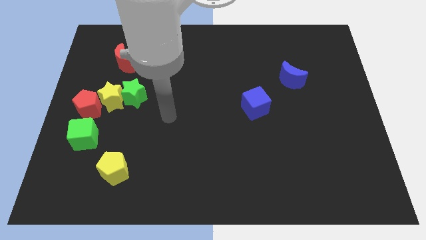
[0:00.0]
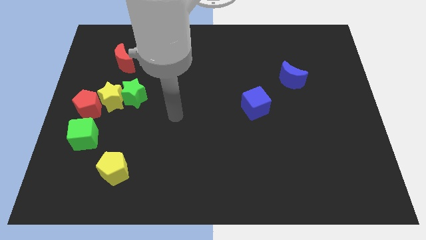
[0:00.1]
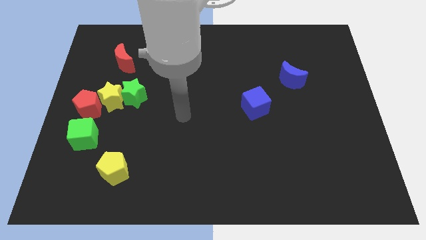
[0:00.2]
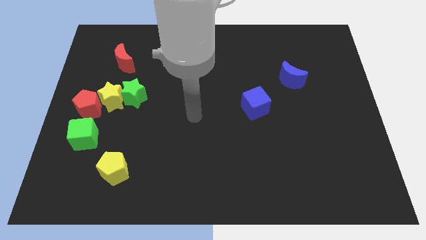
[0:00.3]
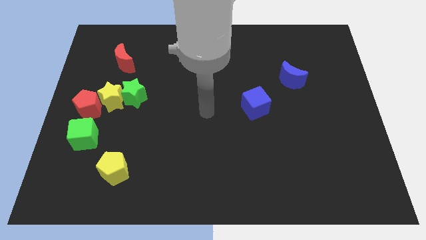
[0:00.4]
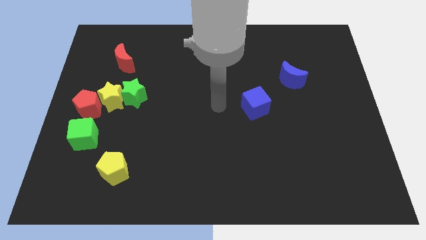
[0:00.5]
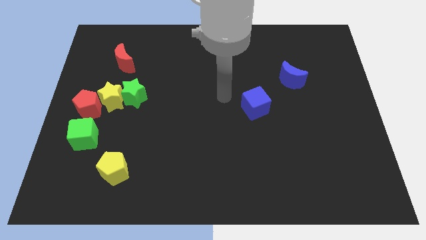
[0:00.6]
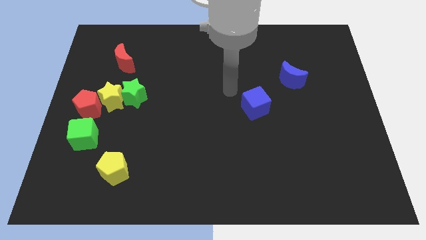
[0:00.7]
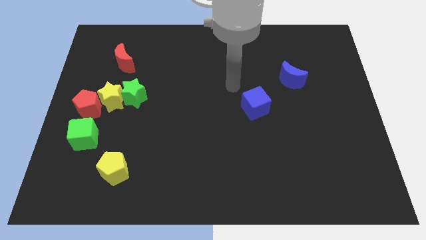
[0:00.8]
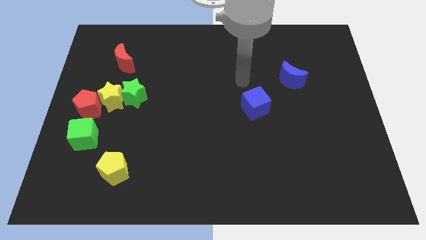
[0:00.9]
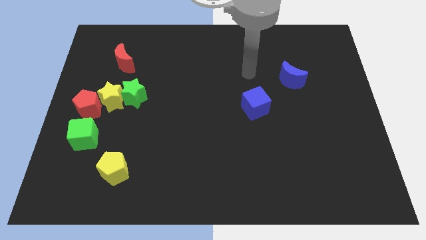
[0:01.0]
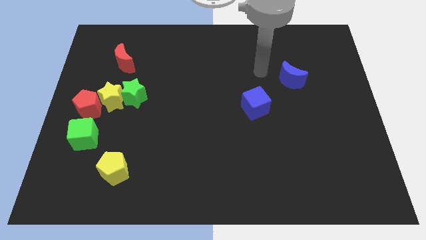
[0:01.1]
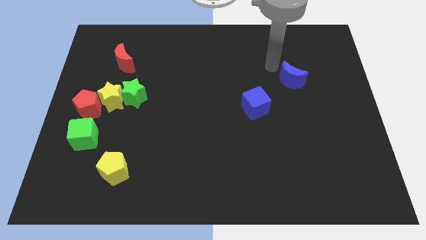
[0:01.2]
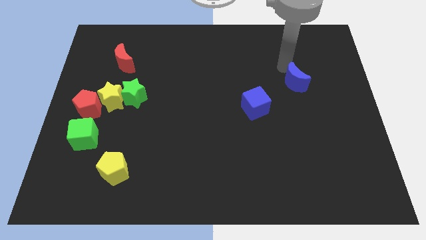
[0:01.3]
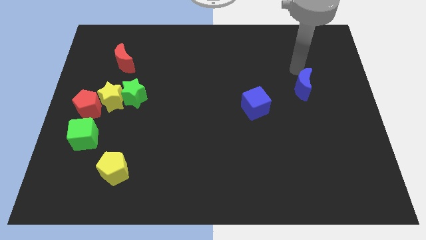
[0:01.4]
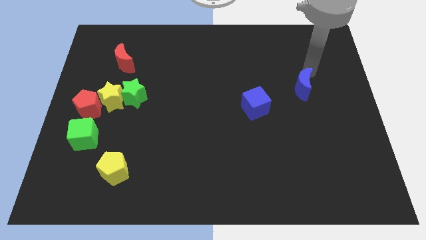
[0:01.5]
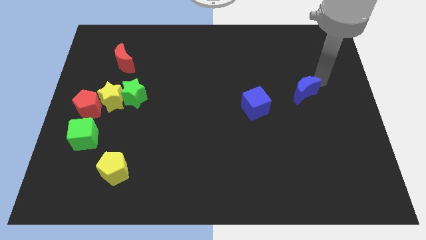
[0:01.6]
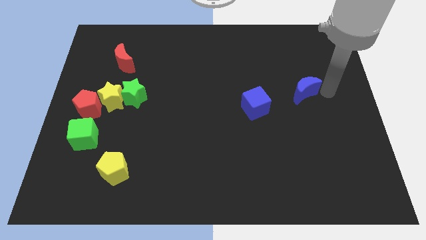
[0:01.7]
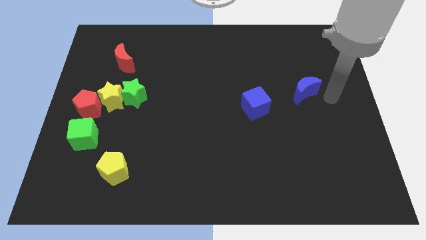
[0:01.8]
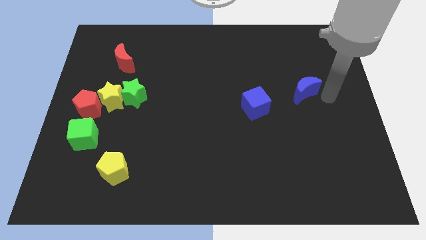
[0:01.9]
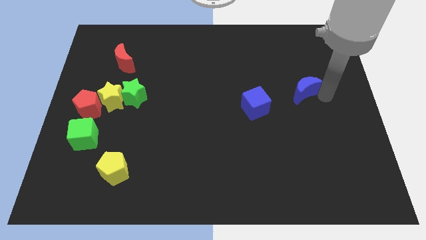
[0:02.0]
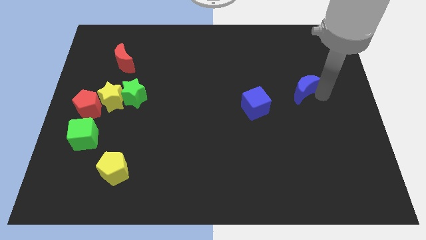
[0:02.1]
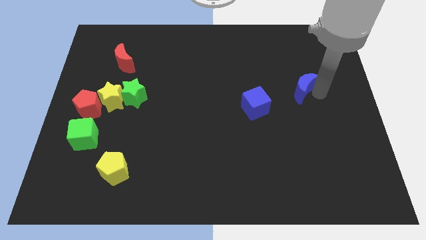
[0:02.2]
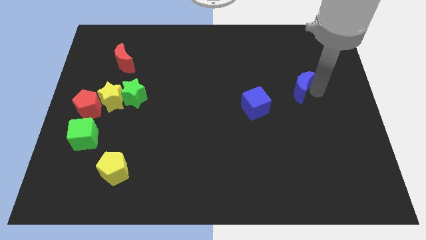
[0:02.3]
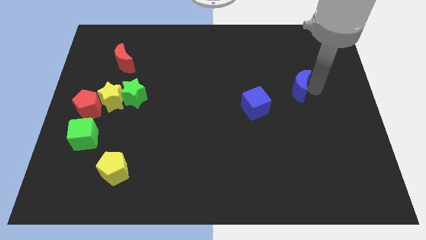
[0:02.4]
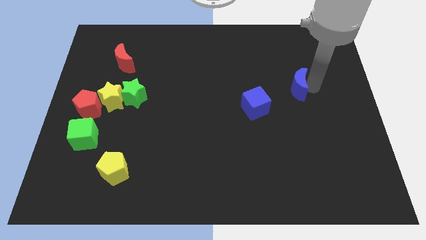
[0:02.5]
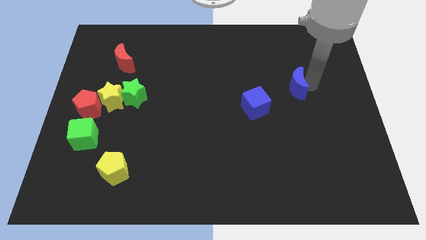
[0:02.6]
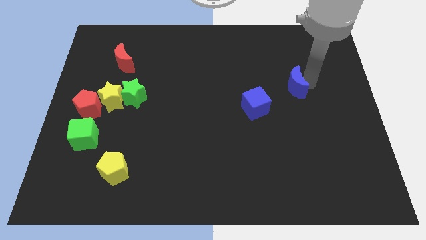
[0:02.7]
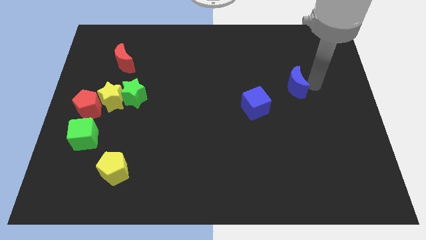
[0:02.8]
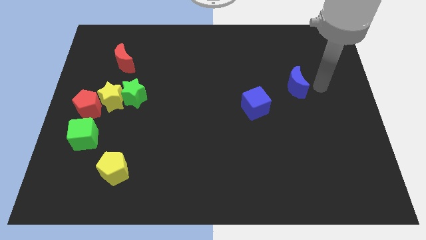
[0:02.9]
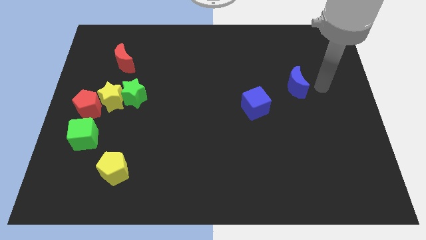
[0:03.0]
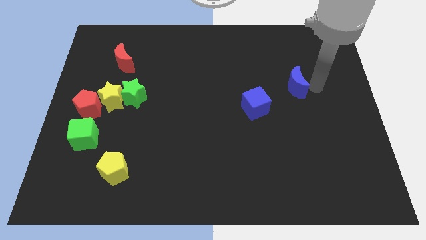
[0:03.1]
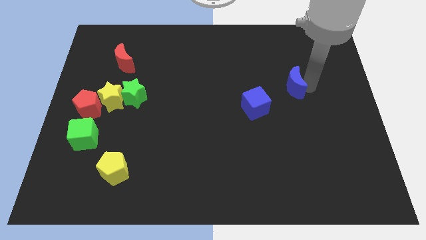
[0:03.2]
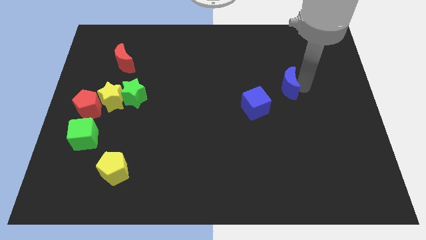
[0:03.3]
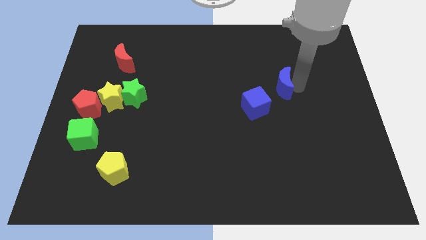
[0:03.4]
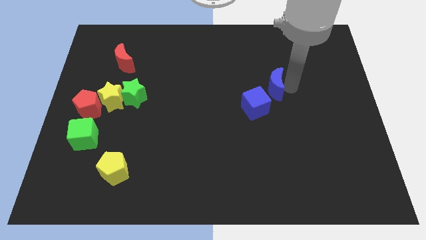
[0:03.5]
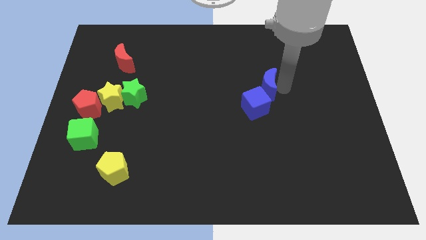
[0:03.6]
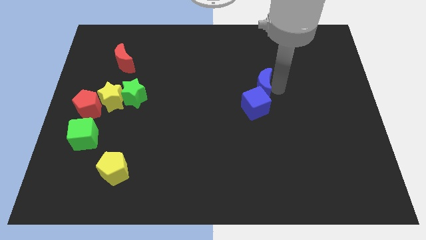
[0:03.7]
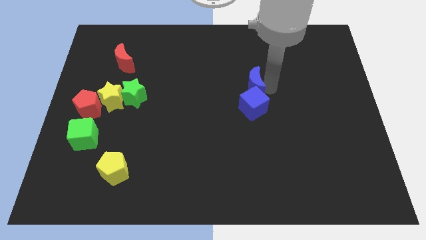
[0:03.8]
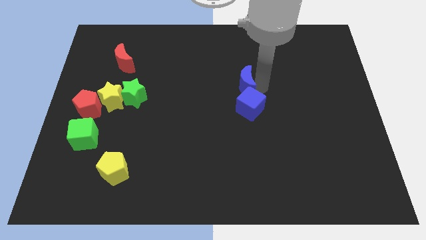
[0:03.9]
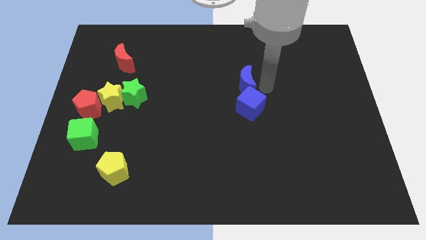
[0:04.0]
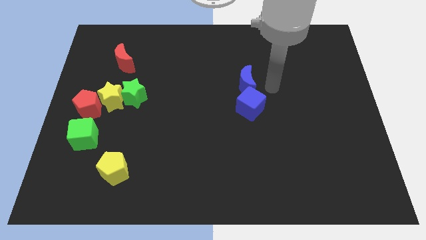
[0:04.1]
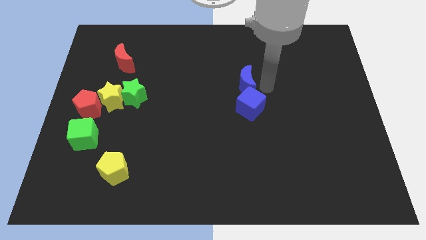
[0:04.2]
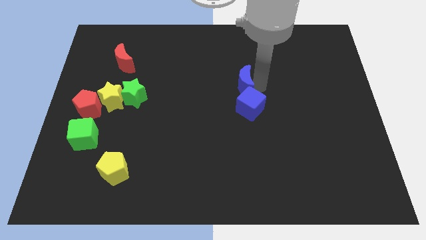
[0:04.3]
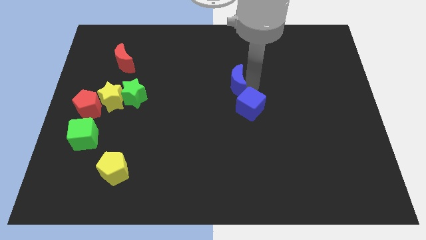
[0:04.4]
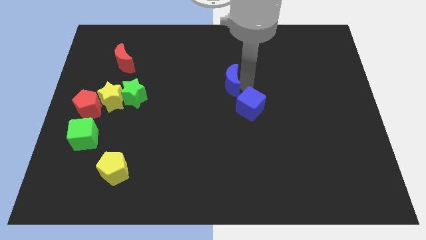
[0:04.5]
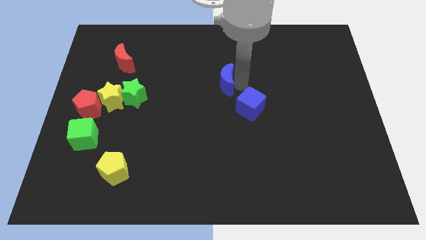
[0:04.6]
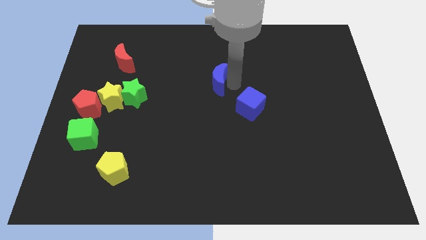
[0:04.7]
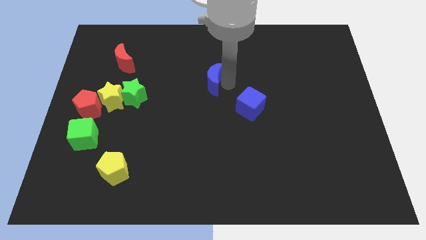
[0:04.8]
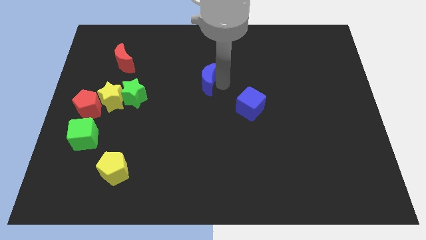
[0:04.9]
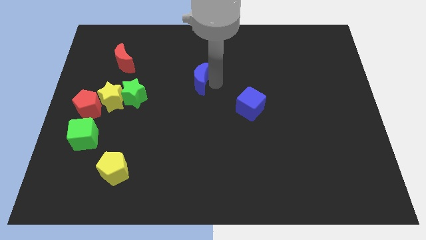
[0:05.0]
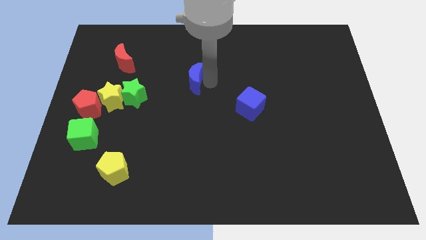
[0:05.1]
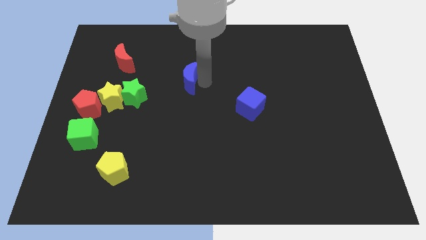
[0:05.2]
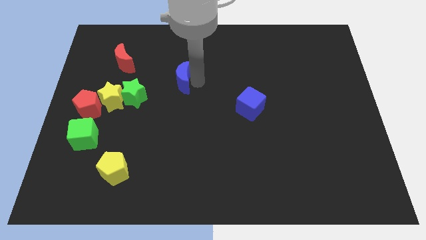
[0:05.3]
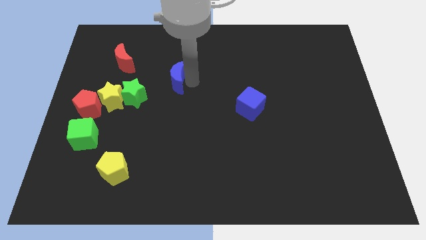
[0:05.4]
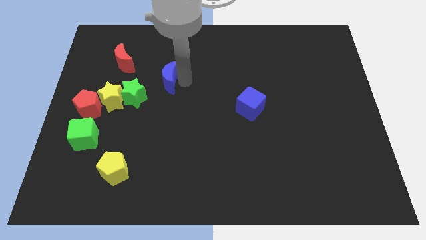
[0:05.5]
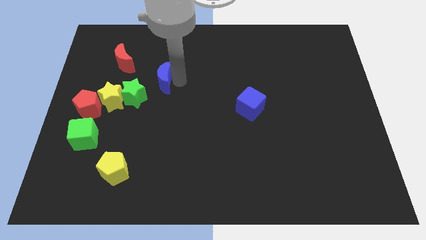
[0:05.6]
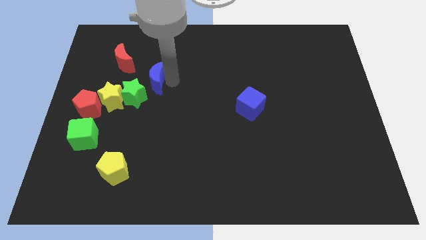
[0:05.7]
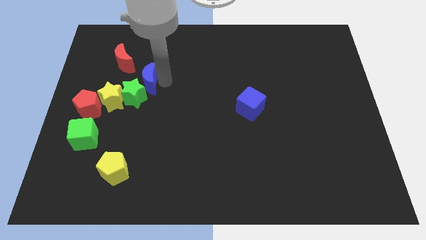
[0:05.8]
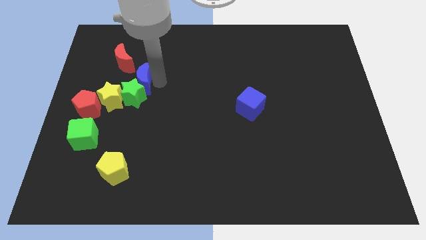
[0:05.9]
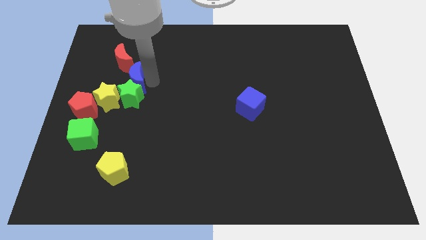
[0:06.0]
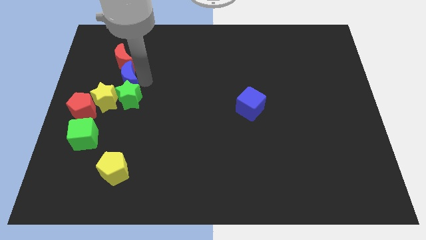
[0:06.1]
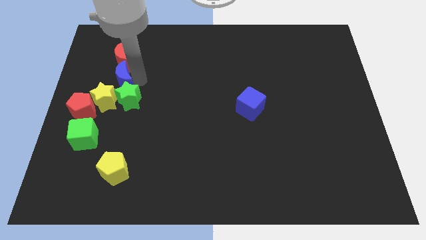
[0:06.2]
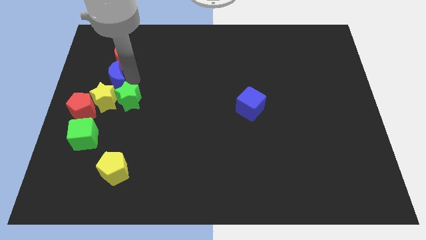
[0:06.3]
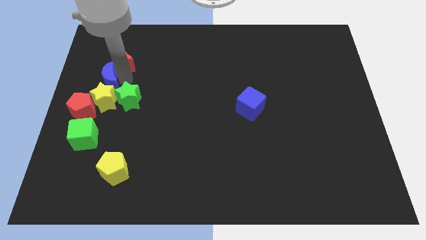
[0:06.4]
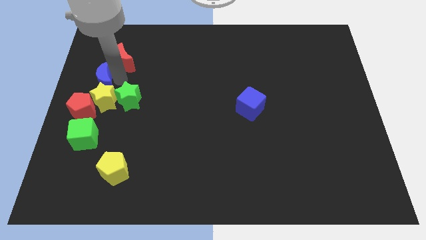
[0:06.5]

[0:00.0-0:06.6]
move the blue moon to the left side of the board
